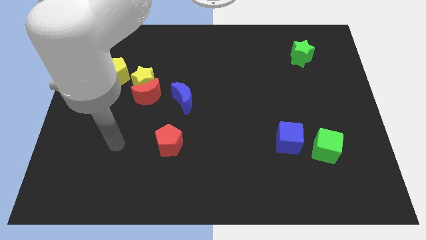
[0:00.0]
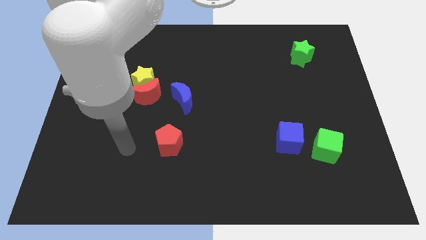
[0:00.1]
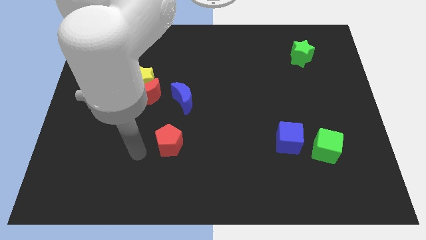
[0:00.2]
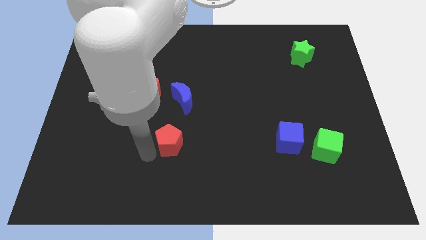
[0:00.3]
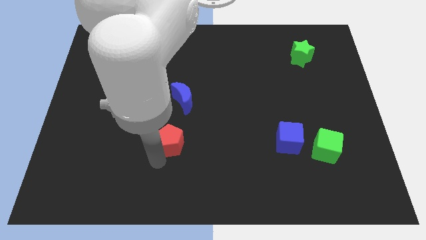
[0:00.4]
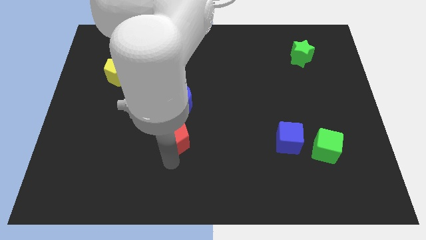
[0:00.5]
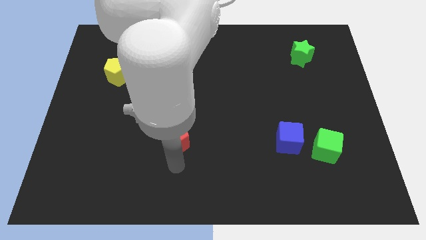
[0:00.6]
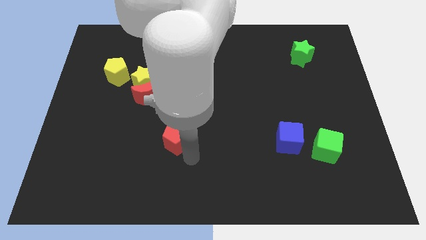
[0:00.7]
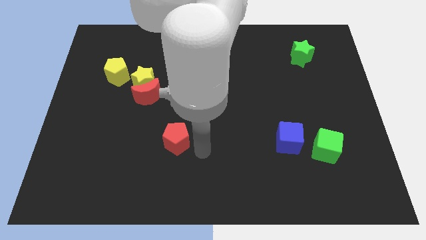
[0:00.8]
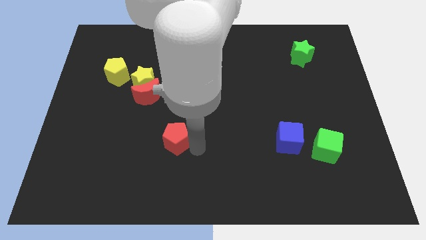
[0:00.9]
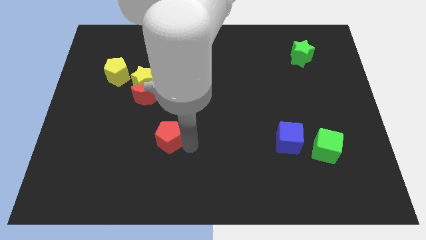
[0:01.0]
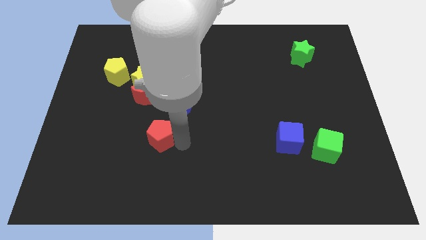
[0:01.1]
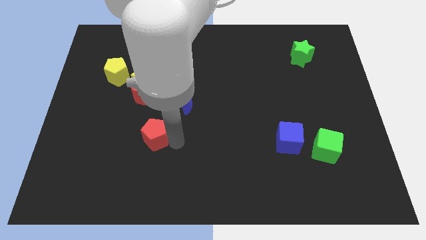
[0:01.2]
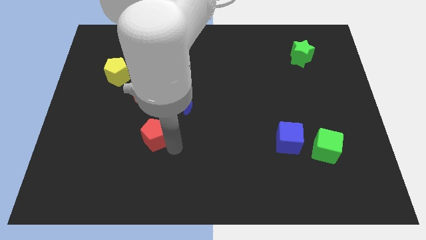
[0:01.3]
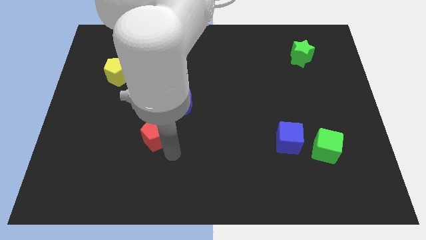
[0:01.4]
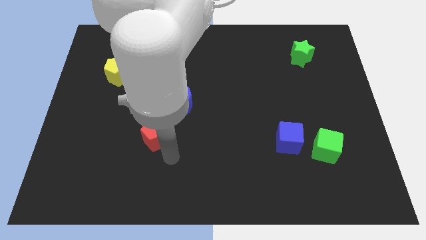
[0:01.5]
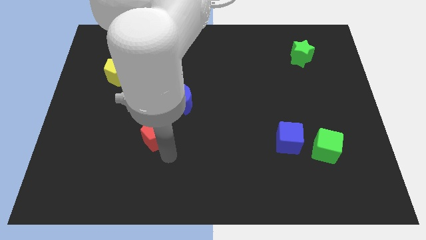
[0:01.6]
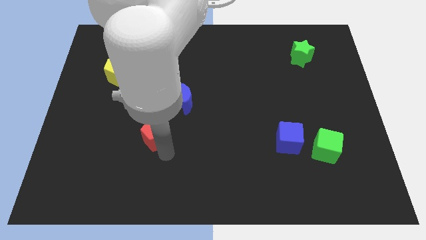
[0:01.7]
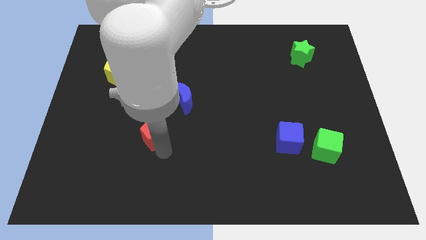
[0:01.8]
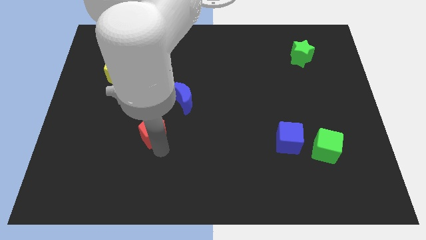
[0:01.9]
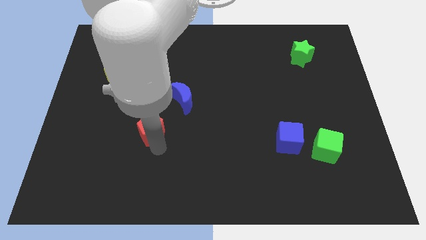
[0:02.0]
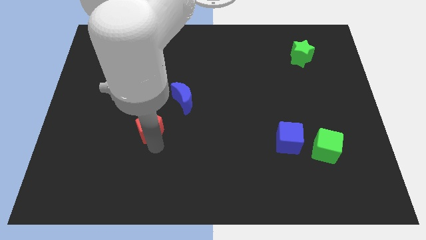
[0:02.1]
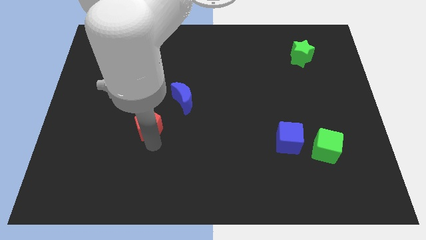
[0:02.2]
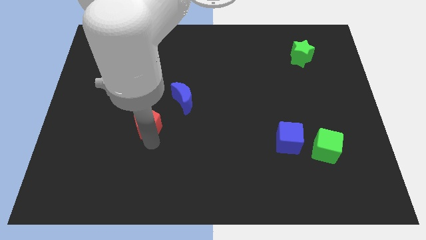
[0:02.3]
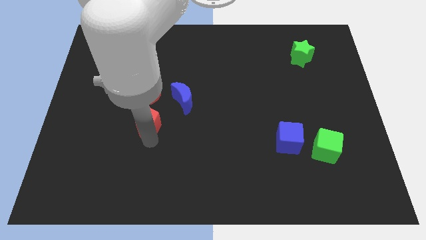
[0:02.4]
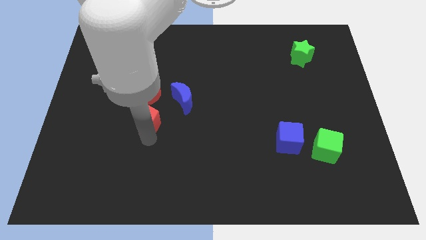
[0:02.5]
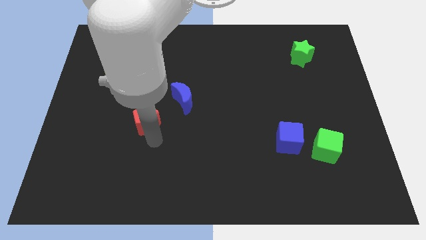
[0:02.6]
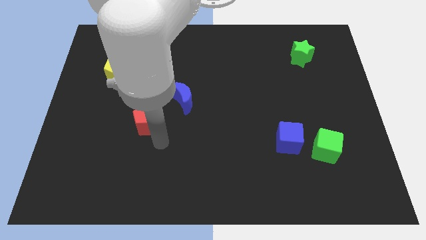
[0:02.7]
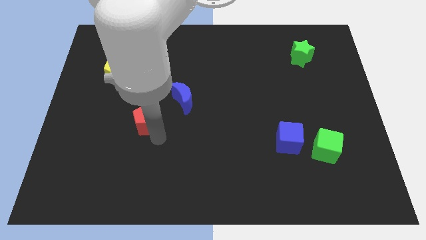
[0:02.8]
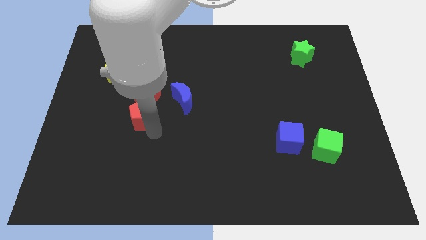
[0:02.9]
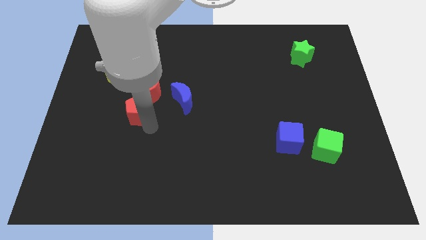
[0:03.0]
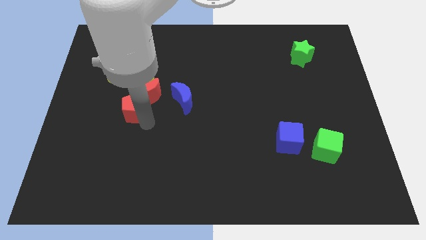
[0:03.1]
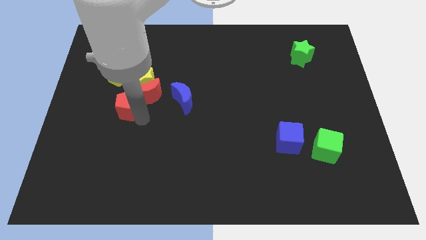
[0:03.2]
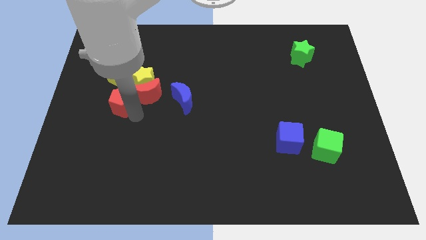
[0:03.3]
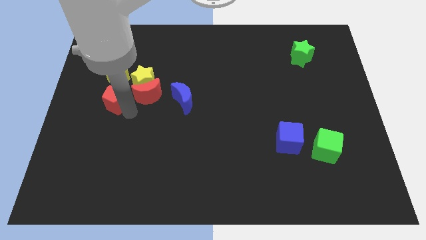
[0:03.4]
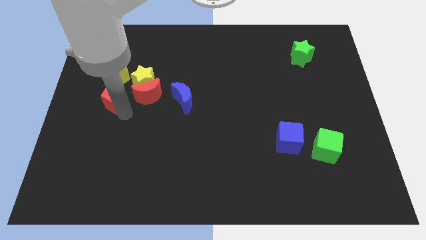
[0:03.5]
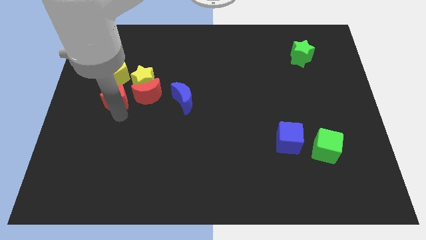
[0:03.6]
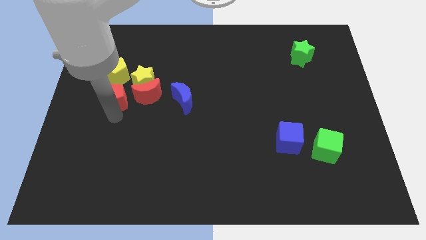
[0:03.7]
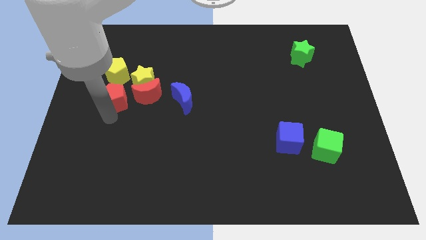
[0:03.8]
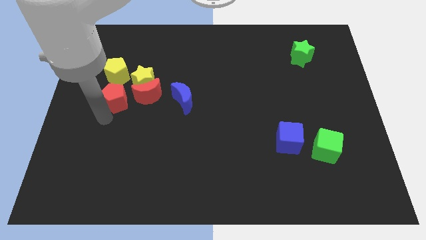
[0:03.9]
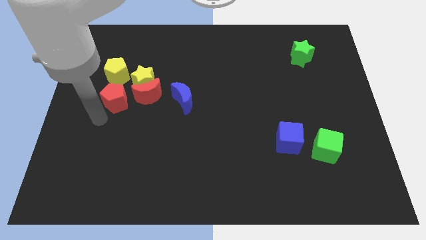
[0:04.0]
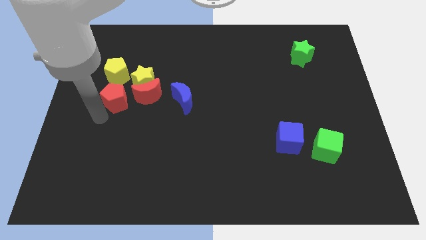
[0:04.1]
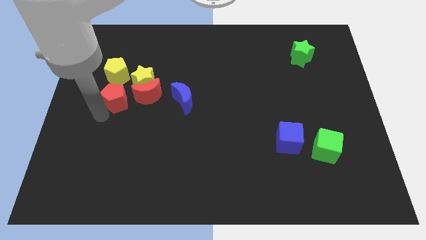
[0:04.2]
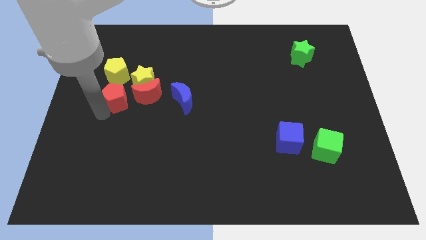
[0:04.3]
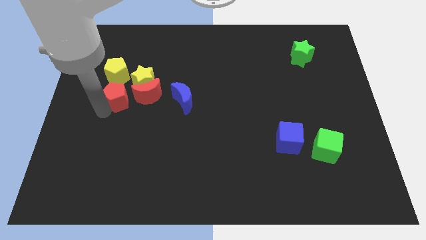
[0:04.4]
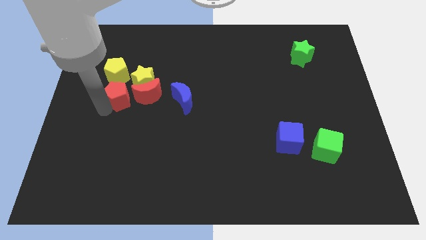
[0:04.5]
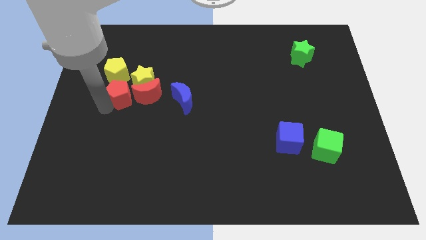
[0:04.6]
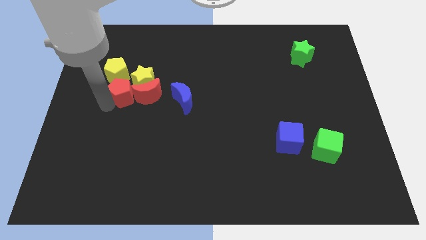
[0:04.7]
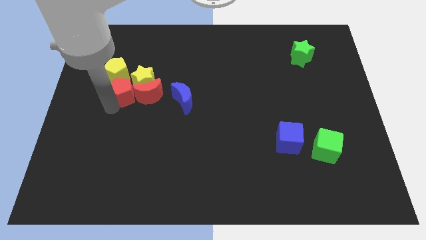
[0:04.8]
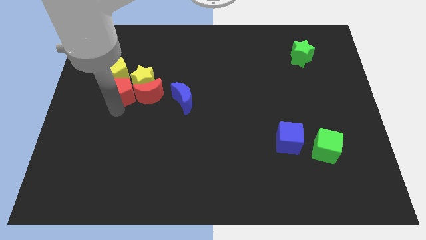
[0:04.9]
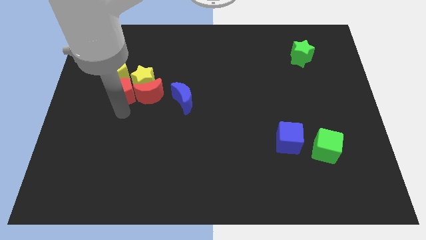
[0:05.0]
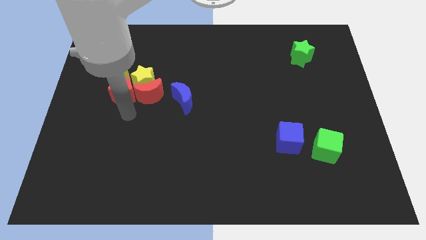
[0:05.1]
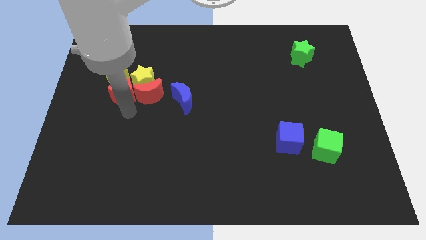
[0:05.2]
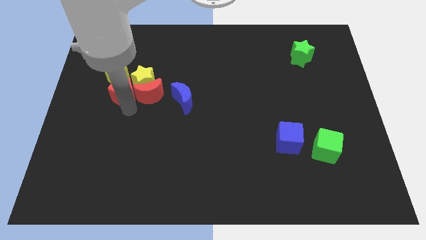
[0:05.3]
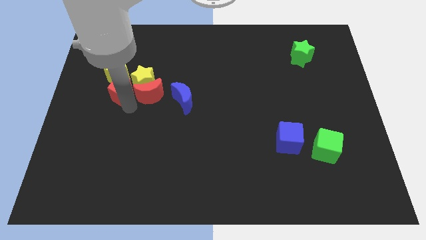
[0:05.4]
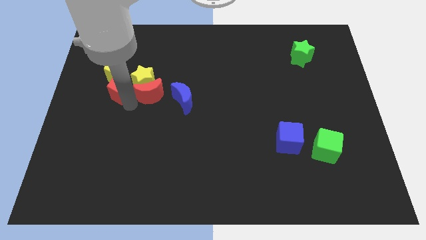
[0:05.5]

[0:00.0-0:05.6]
put the red pentagon next to the yellow pentagon

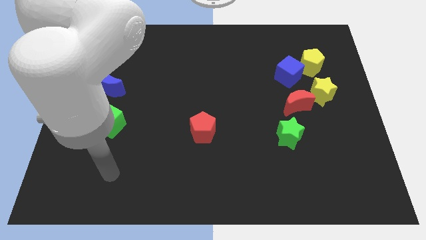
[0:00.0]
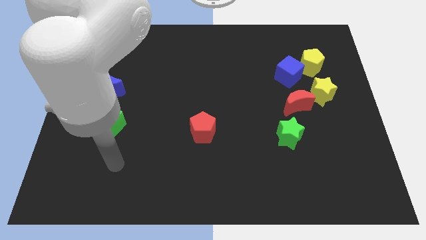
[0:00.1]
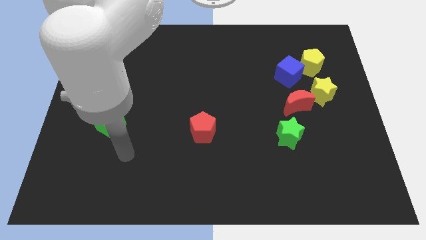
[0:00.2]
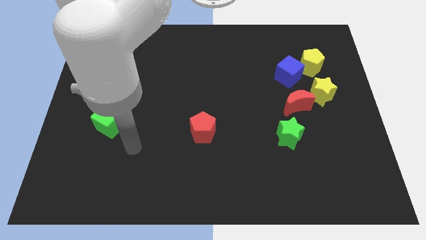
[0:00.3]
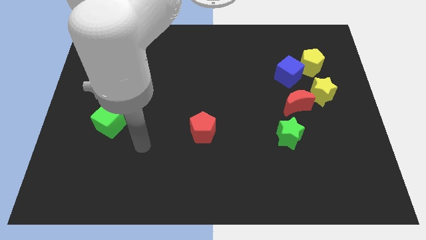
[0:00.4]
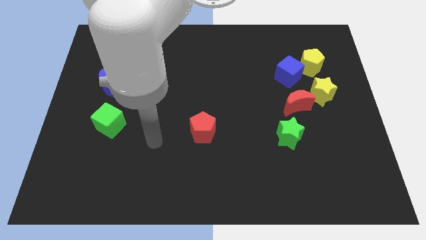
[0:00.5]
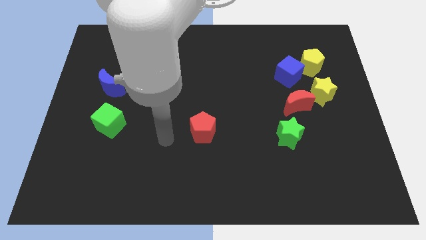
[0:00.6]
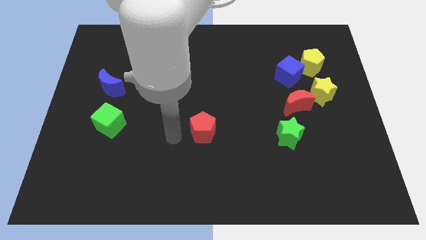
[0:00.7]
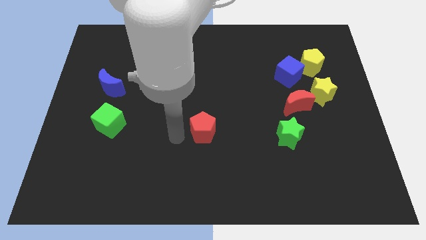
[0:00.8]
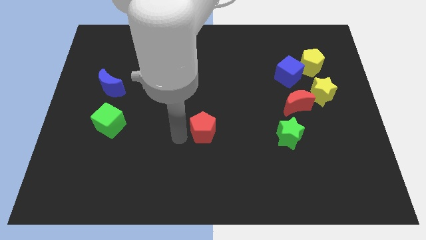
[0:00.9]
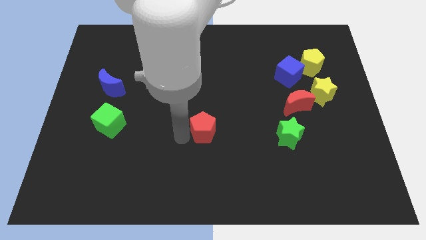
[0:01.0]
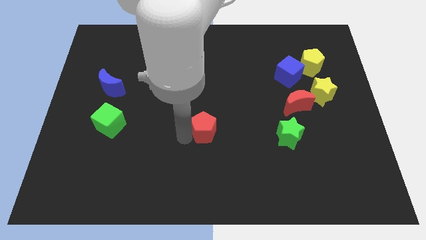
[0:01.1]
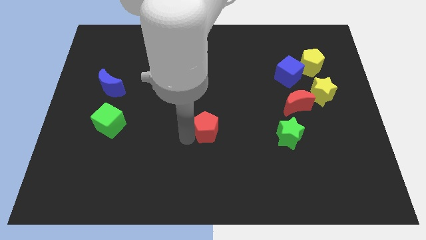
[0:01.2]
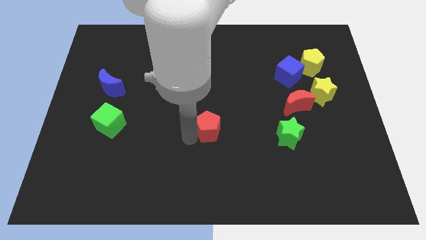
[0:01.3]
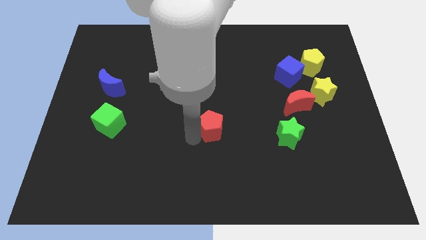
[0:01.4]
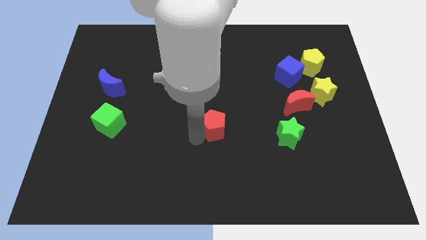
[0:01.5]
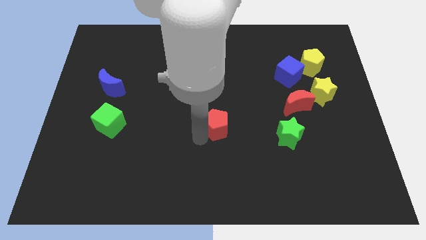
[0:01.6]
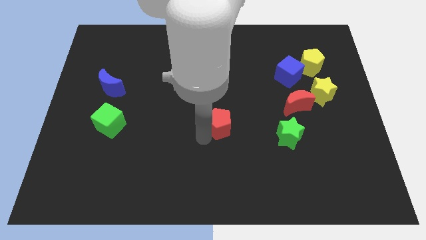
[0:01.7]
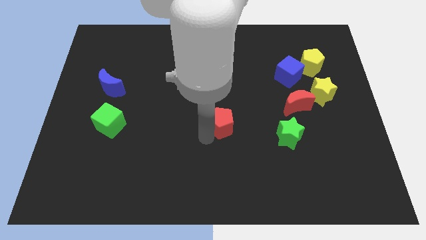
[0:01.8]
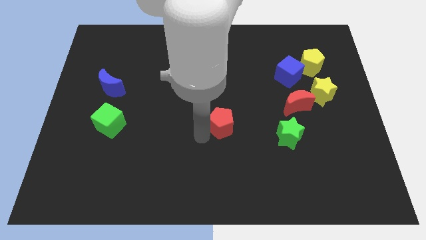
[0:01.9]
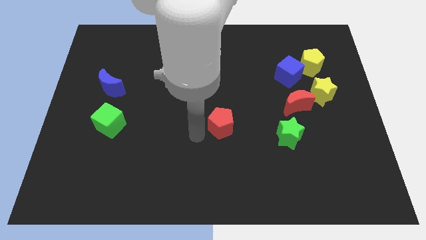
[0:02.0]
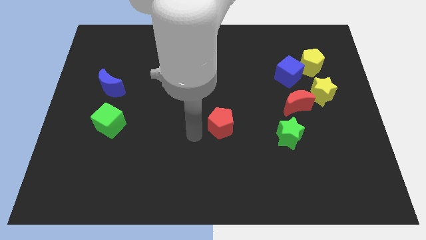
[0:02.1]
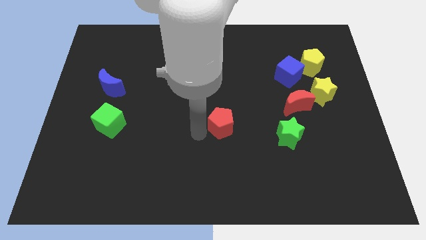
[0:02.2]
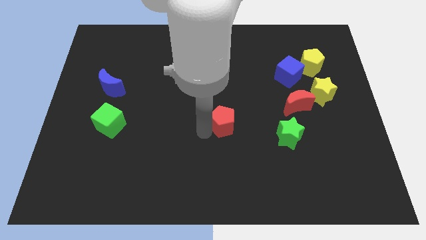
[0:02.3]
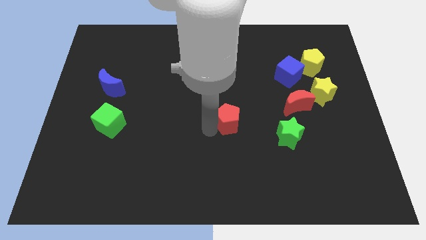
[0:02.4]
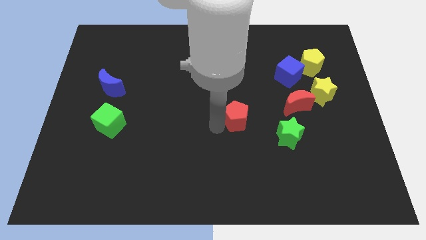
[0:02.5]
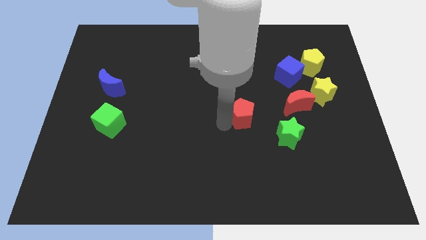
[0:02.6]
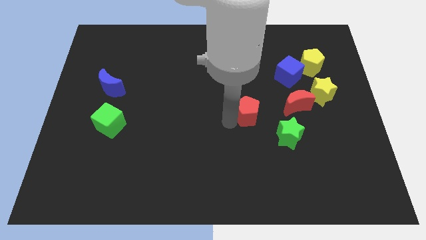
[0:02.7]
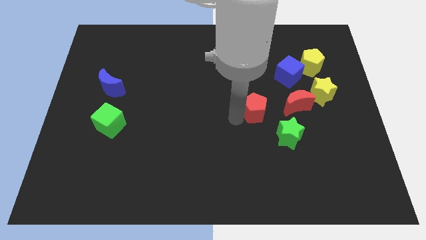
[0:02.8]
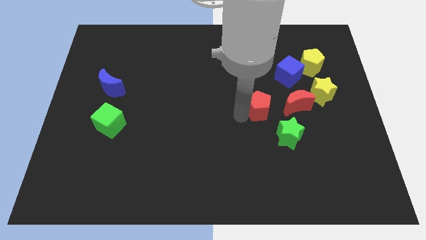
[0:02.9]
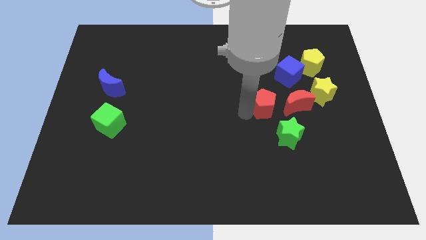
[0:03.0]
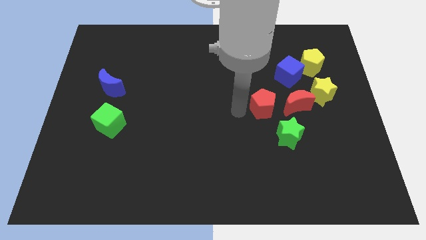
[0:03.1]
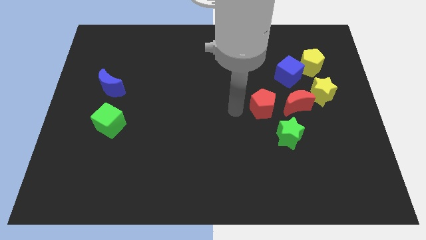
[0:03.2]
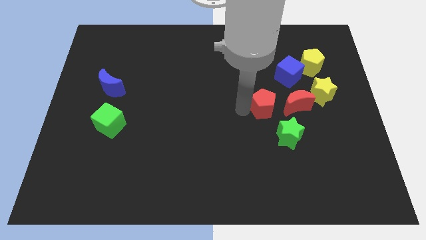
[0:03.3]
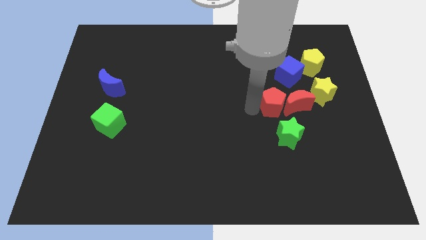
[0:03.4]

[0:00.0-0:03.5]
move the red pentagon close to the red moon
